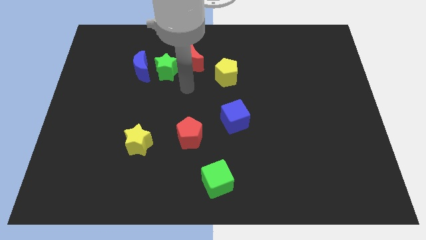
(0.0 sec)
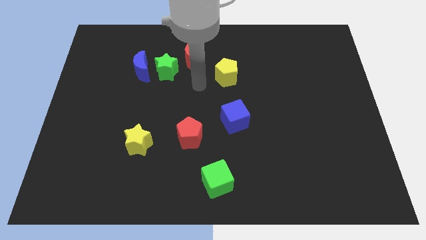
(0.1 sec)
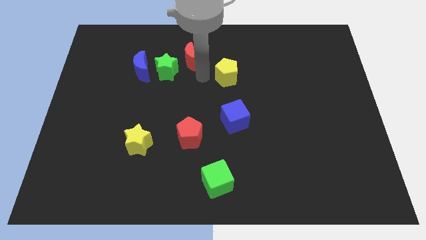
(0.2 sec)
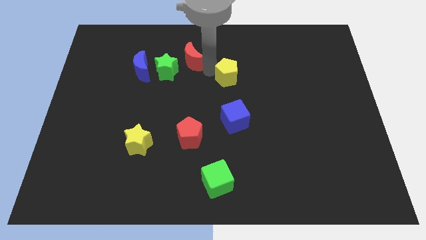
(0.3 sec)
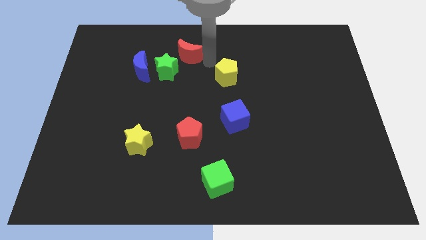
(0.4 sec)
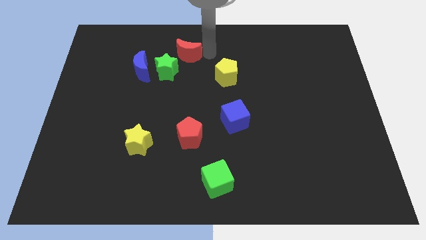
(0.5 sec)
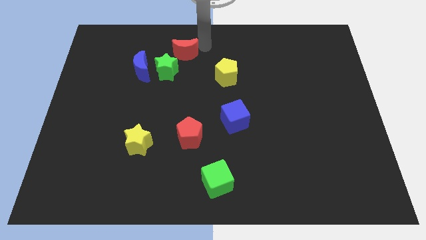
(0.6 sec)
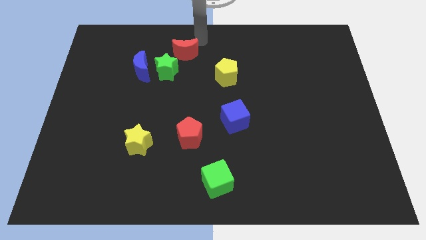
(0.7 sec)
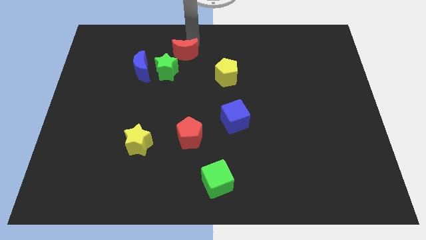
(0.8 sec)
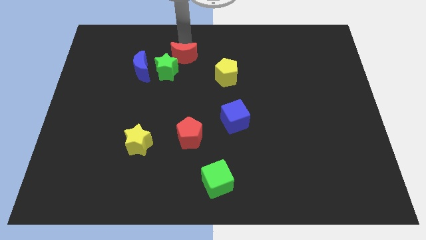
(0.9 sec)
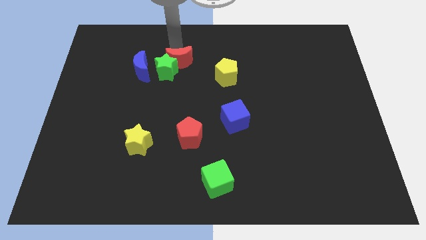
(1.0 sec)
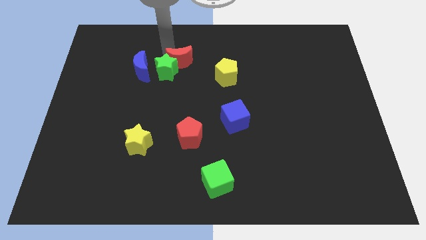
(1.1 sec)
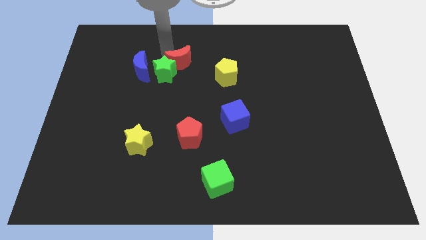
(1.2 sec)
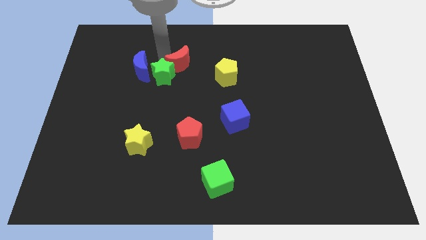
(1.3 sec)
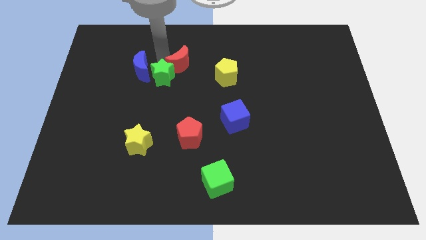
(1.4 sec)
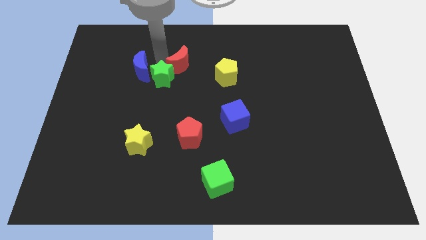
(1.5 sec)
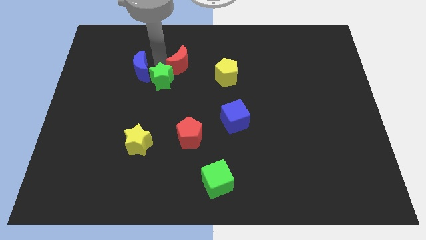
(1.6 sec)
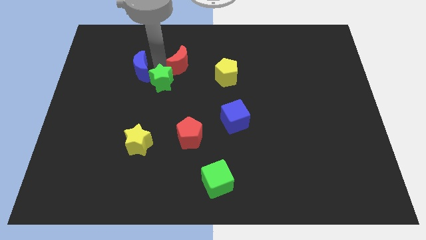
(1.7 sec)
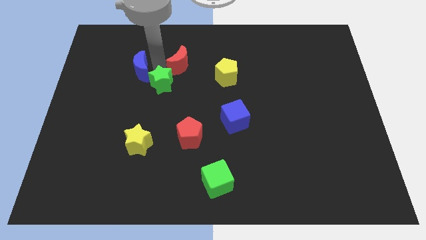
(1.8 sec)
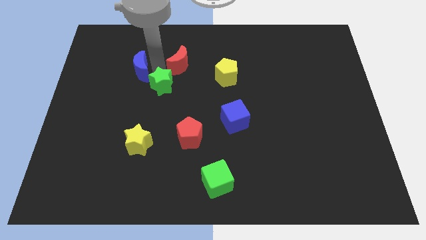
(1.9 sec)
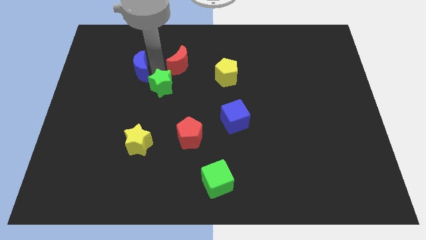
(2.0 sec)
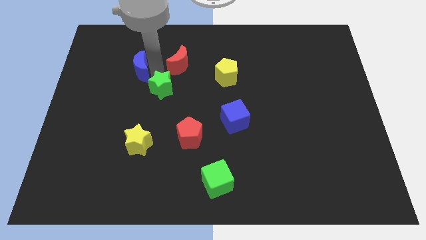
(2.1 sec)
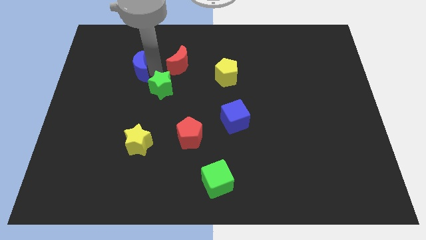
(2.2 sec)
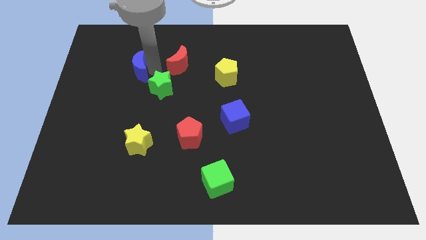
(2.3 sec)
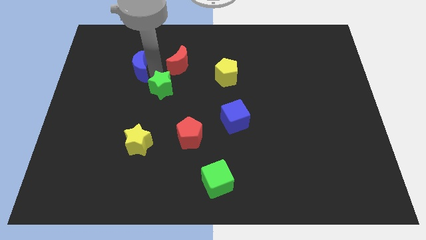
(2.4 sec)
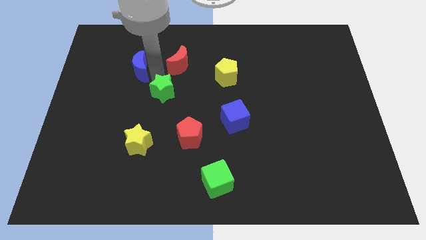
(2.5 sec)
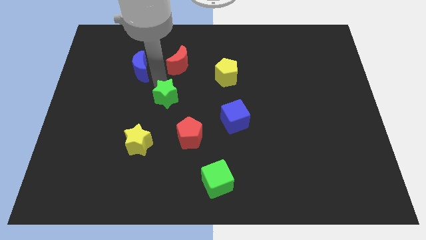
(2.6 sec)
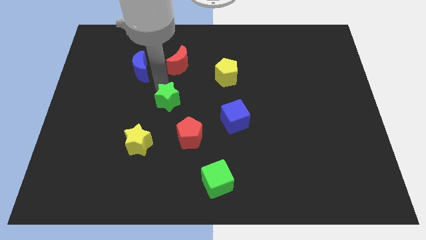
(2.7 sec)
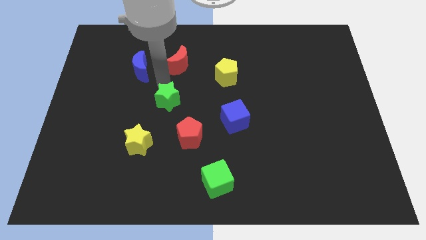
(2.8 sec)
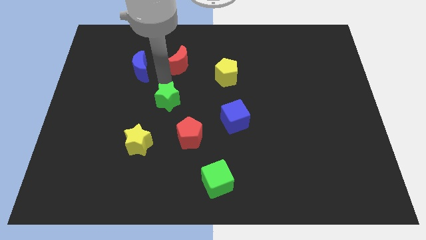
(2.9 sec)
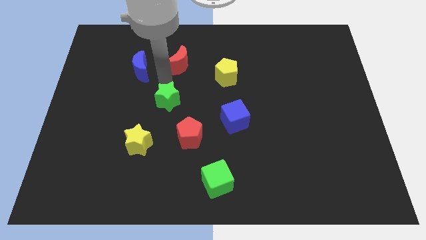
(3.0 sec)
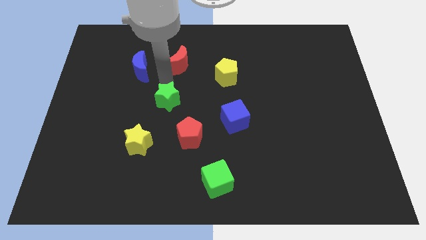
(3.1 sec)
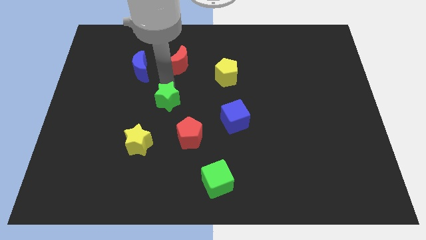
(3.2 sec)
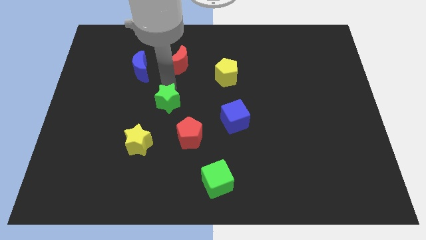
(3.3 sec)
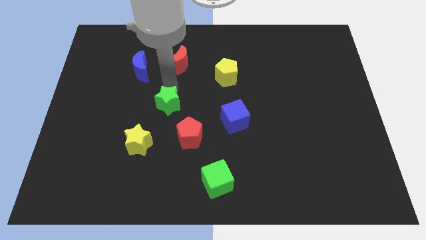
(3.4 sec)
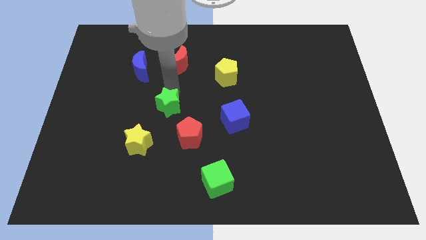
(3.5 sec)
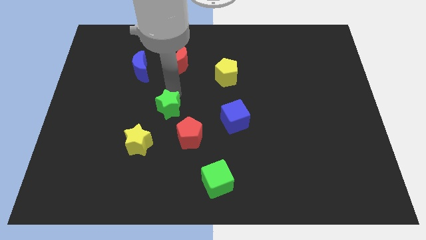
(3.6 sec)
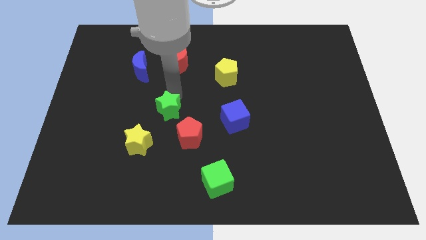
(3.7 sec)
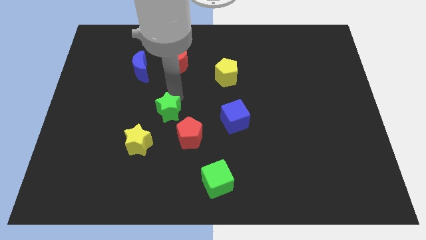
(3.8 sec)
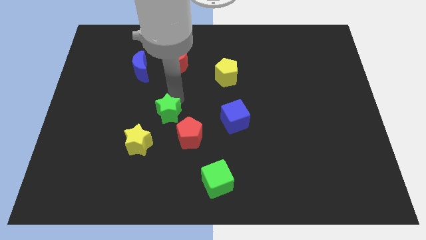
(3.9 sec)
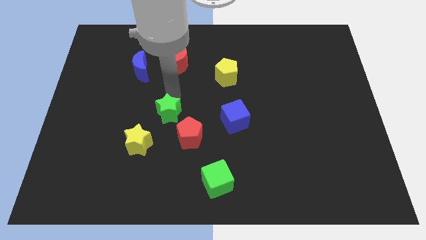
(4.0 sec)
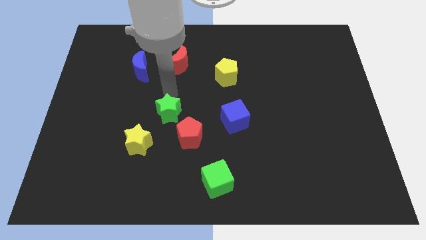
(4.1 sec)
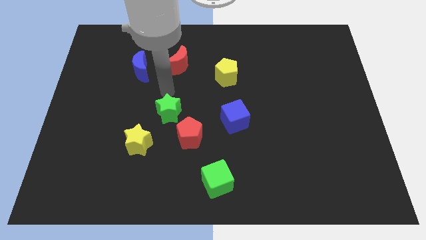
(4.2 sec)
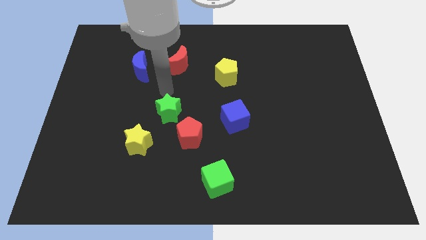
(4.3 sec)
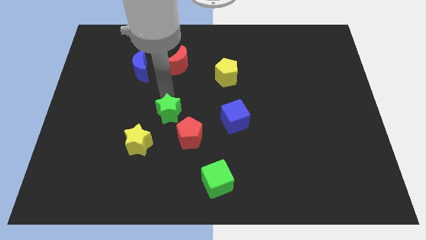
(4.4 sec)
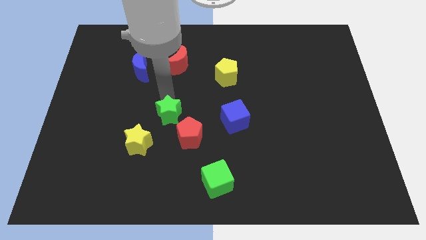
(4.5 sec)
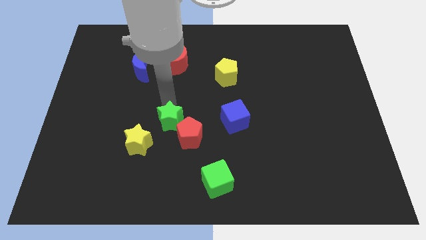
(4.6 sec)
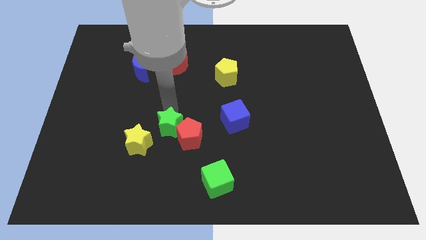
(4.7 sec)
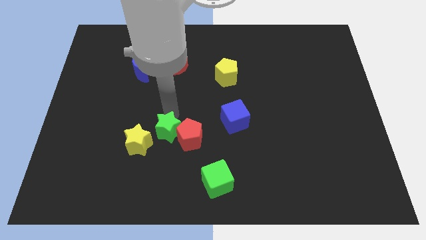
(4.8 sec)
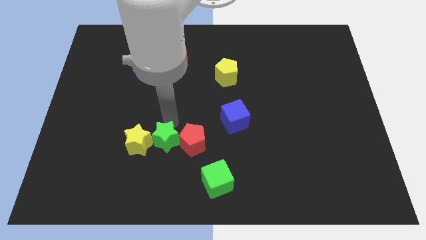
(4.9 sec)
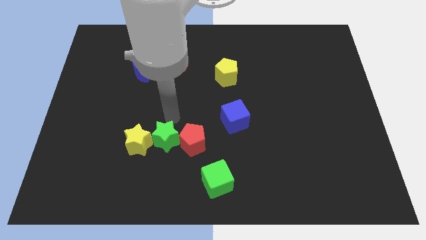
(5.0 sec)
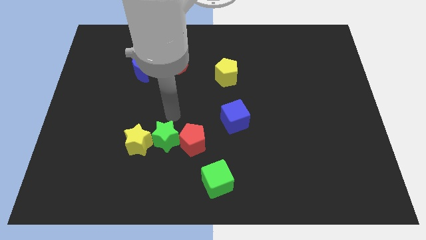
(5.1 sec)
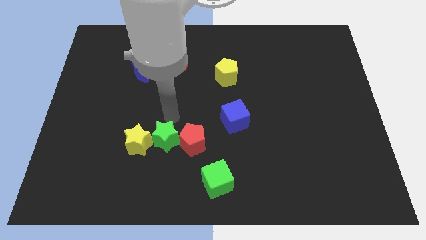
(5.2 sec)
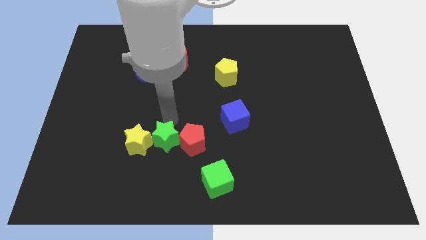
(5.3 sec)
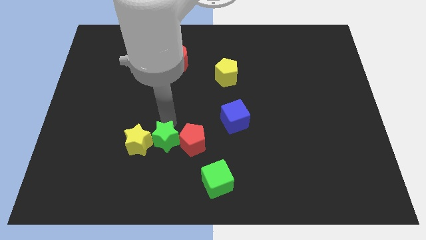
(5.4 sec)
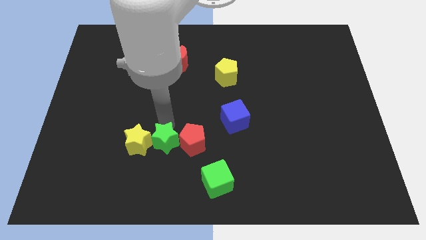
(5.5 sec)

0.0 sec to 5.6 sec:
move the green star to the bottom right side of the yellow star

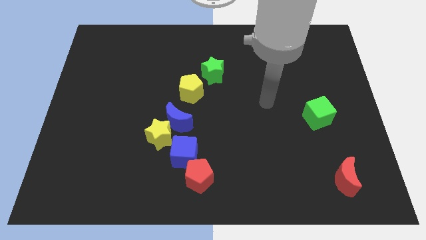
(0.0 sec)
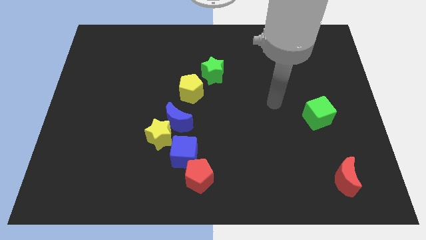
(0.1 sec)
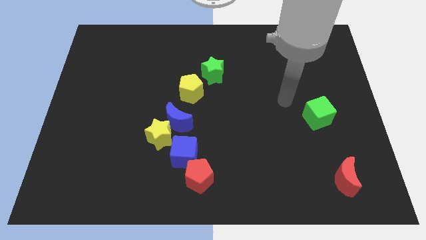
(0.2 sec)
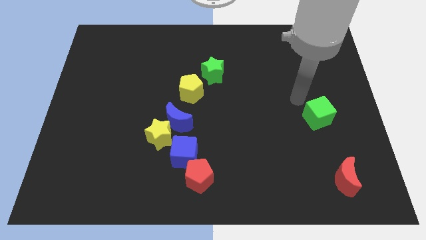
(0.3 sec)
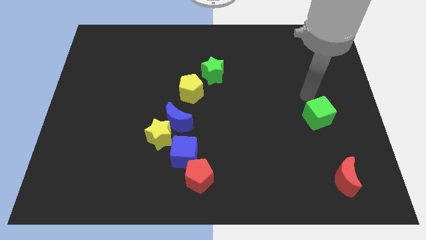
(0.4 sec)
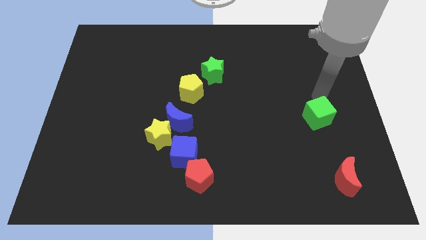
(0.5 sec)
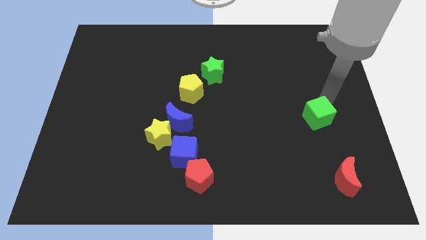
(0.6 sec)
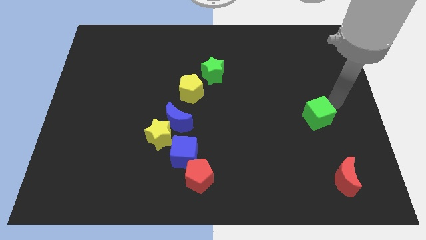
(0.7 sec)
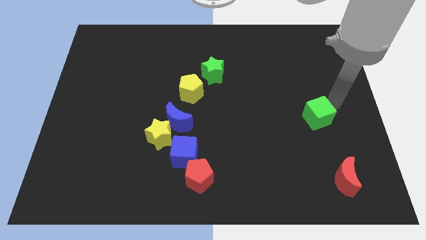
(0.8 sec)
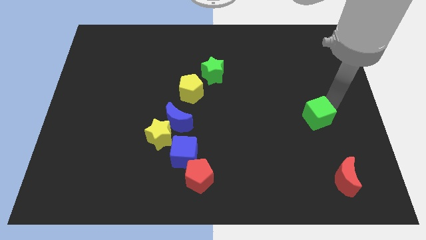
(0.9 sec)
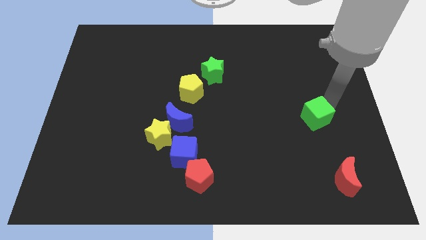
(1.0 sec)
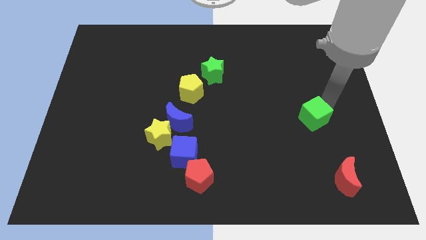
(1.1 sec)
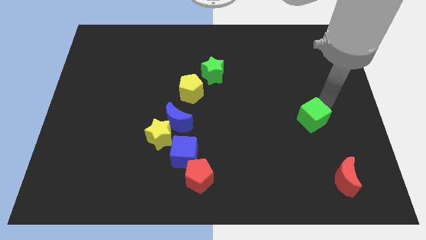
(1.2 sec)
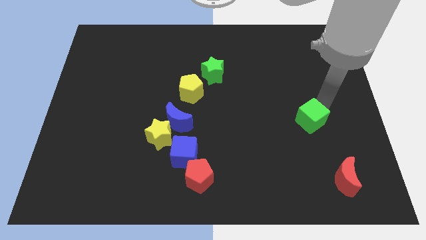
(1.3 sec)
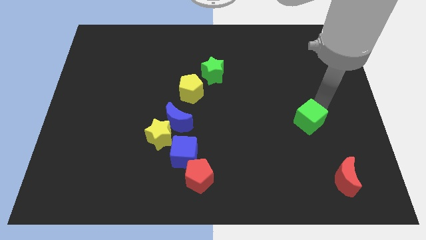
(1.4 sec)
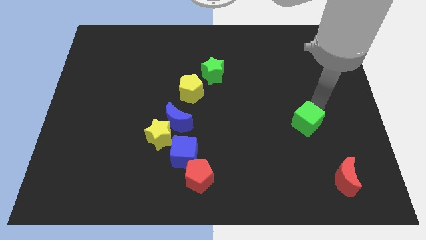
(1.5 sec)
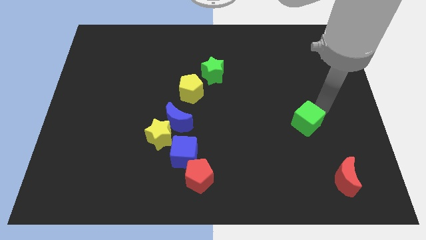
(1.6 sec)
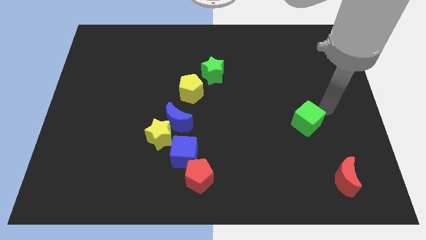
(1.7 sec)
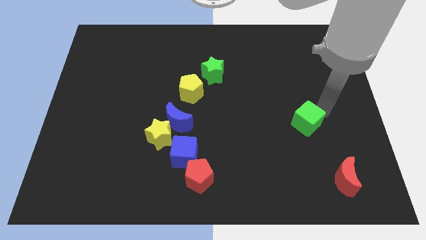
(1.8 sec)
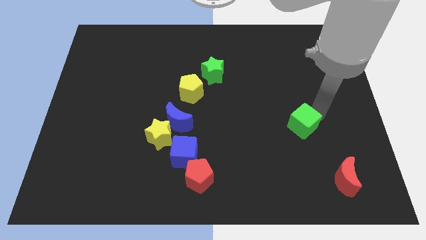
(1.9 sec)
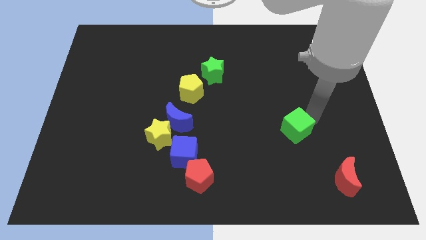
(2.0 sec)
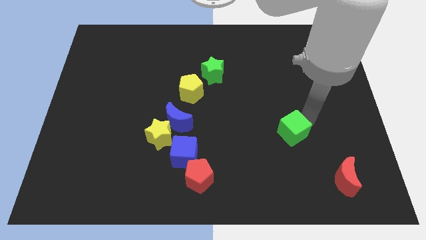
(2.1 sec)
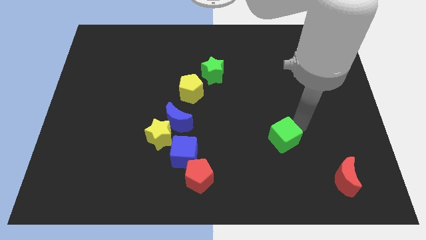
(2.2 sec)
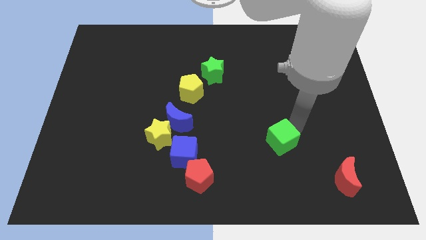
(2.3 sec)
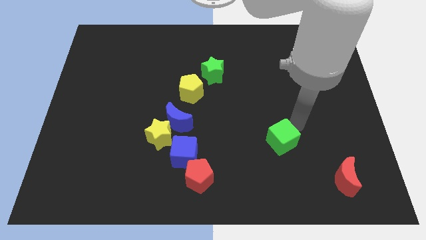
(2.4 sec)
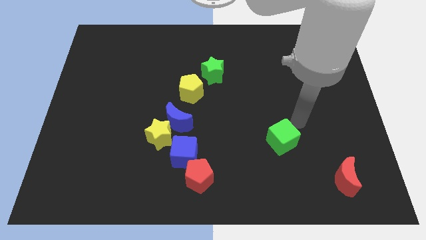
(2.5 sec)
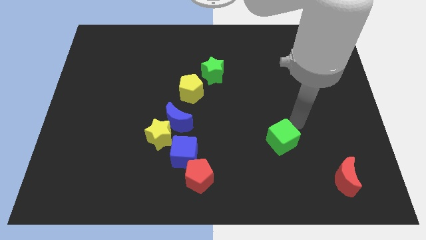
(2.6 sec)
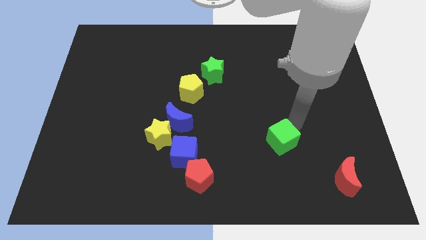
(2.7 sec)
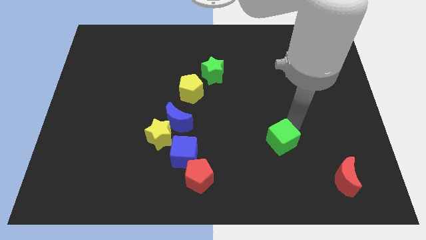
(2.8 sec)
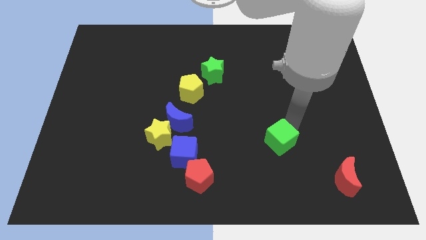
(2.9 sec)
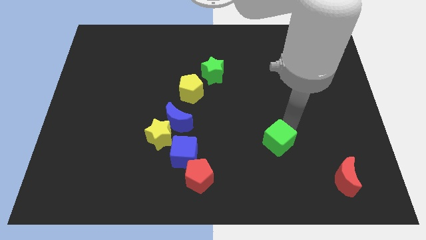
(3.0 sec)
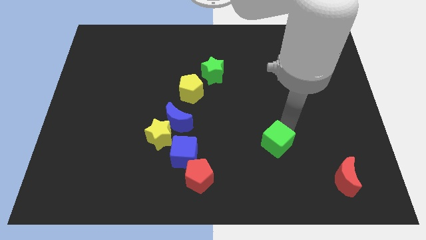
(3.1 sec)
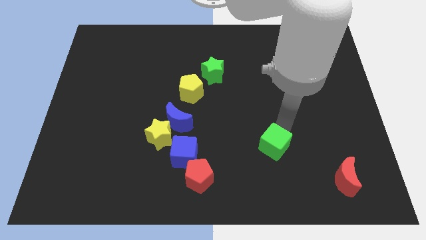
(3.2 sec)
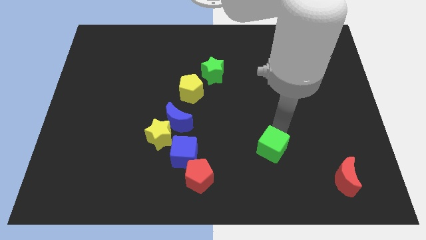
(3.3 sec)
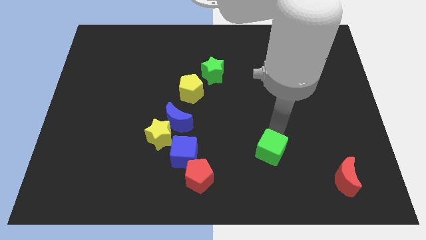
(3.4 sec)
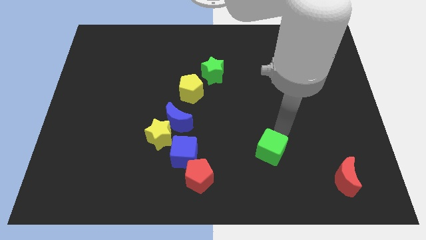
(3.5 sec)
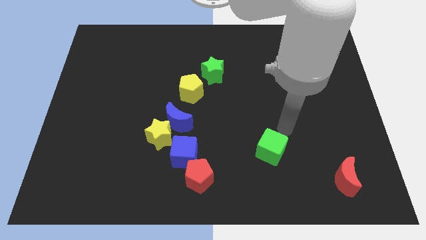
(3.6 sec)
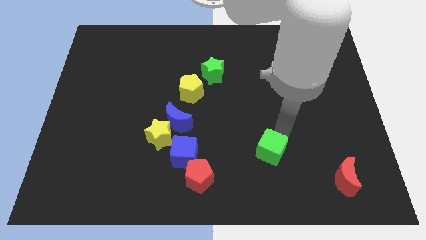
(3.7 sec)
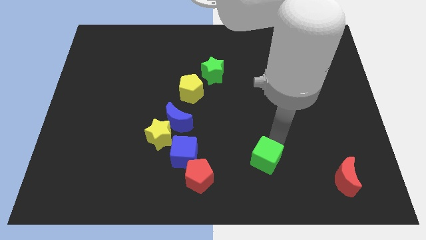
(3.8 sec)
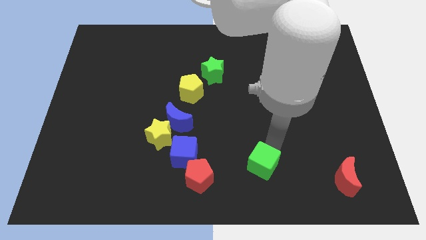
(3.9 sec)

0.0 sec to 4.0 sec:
push the green cube just right of the red pentagon
